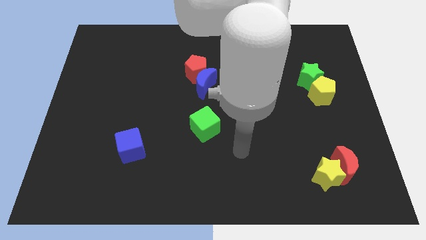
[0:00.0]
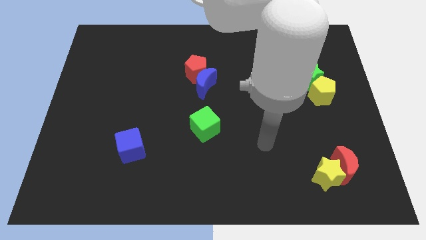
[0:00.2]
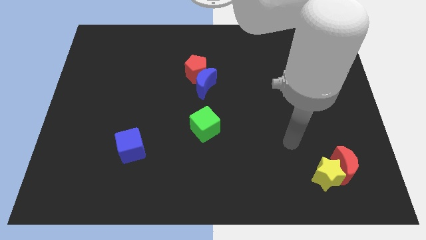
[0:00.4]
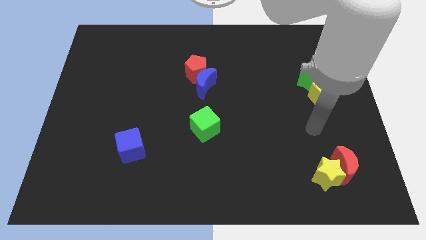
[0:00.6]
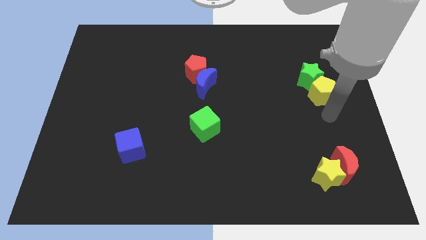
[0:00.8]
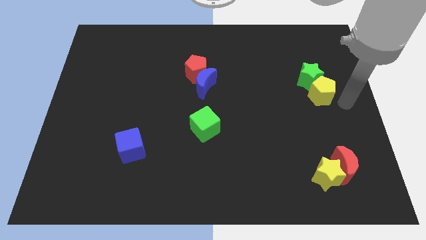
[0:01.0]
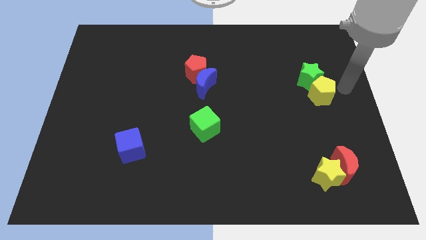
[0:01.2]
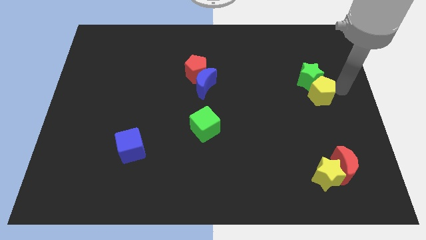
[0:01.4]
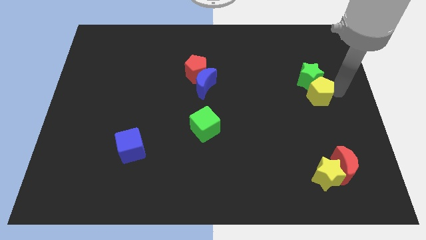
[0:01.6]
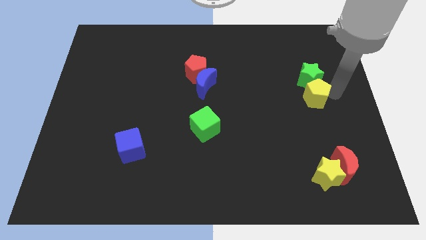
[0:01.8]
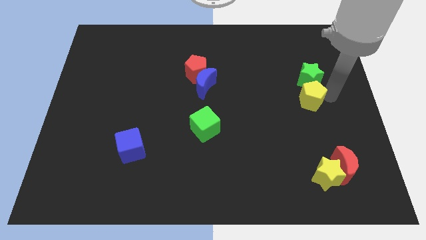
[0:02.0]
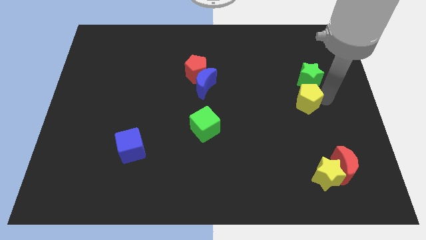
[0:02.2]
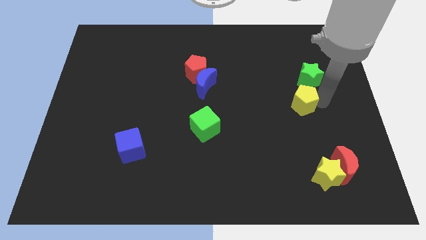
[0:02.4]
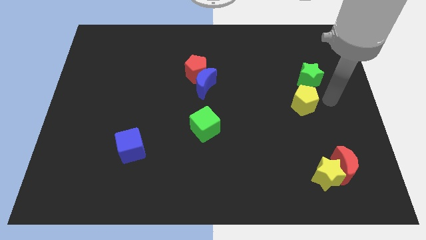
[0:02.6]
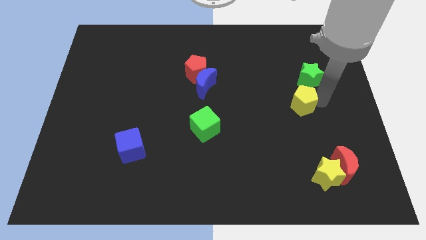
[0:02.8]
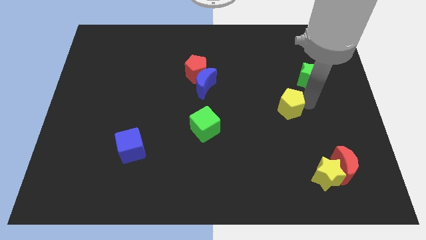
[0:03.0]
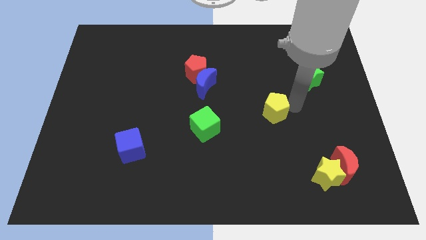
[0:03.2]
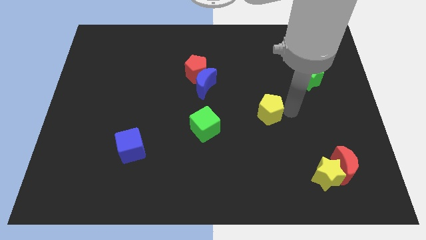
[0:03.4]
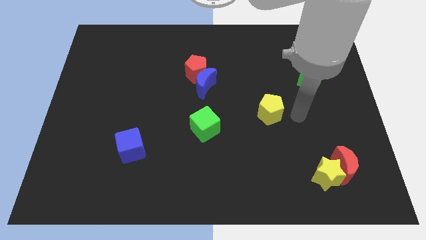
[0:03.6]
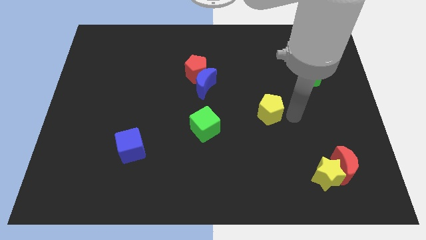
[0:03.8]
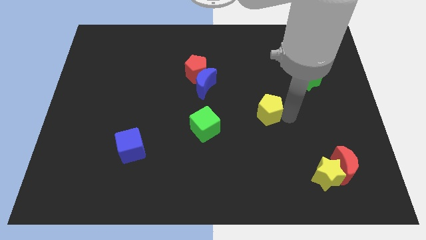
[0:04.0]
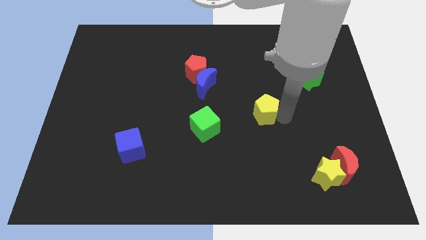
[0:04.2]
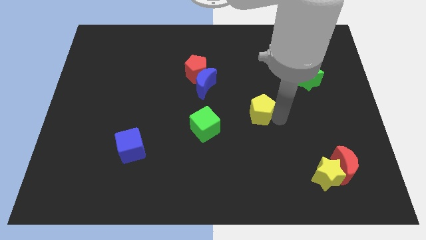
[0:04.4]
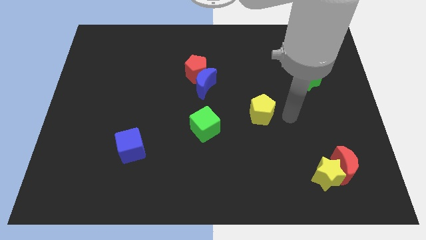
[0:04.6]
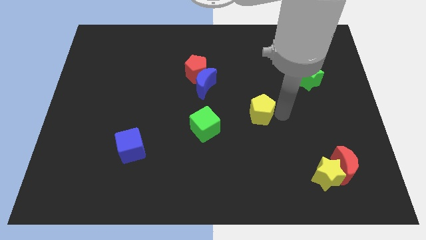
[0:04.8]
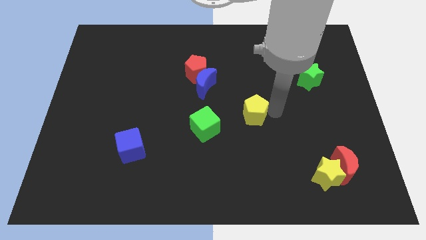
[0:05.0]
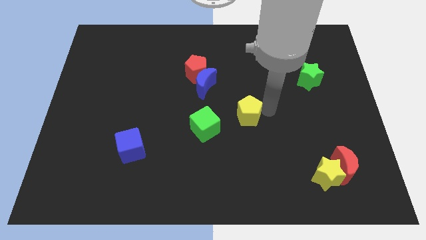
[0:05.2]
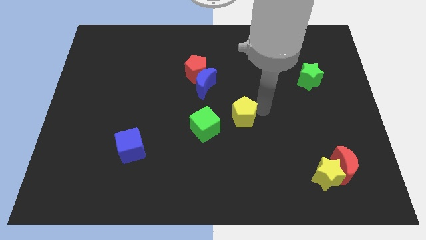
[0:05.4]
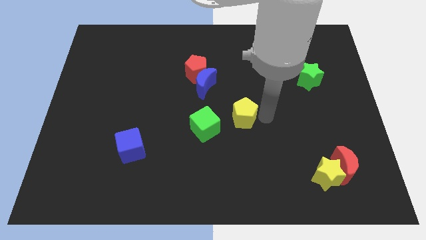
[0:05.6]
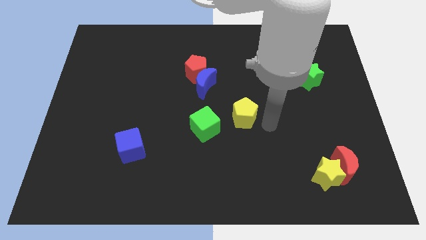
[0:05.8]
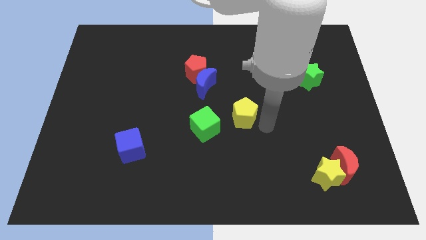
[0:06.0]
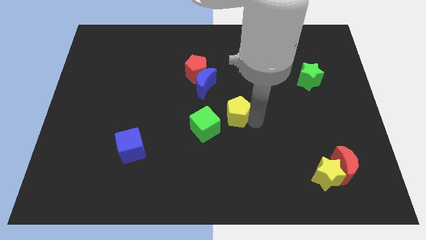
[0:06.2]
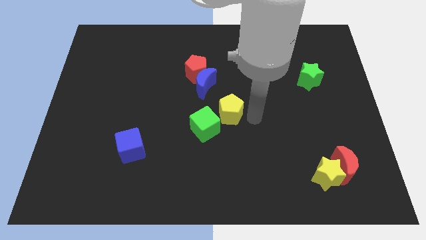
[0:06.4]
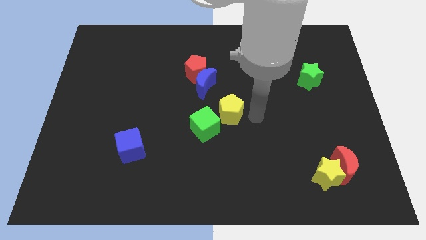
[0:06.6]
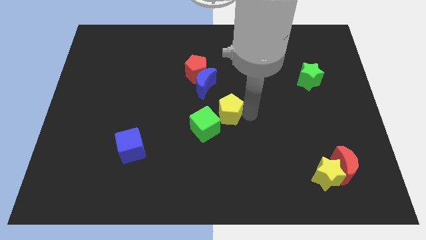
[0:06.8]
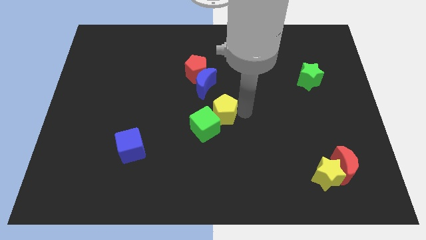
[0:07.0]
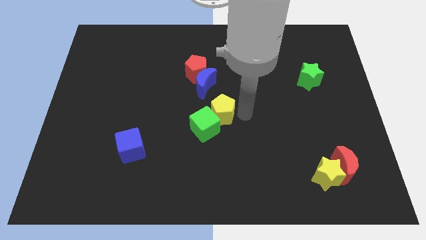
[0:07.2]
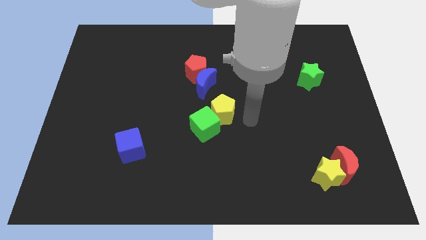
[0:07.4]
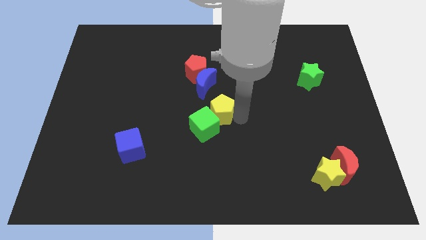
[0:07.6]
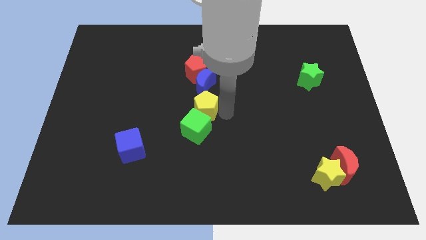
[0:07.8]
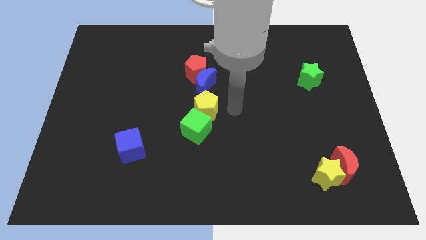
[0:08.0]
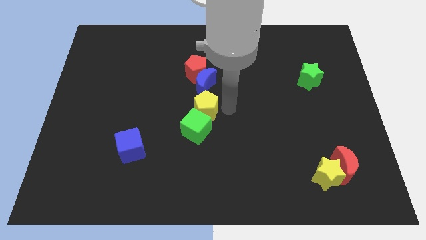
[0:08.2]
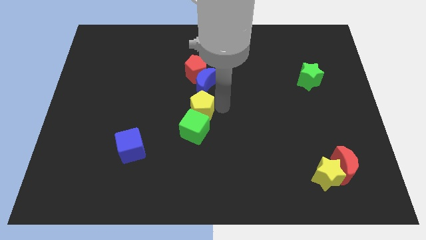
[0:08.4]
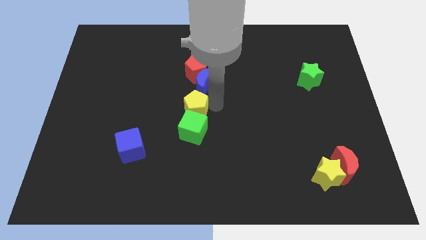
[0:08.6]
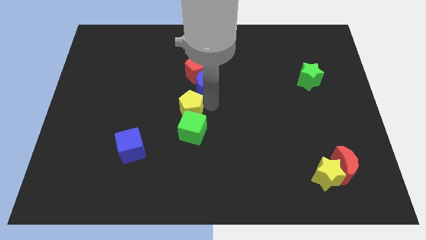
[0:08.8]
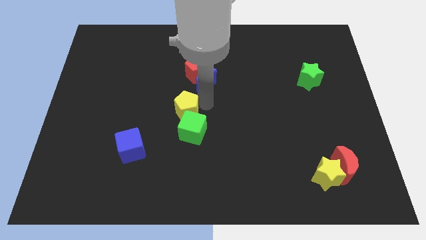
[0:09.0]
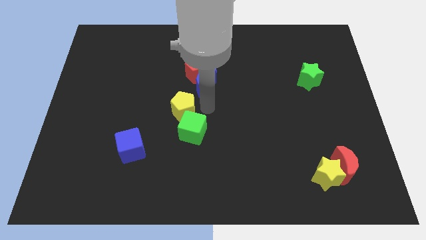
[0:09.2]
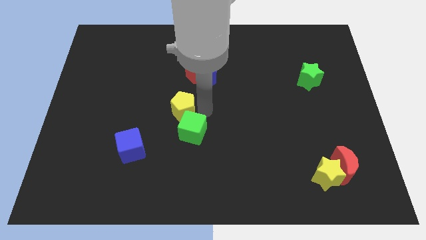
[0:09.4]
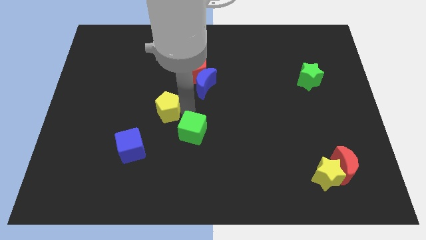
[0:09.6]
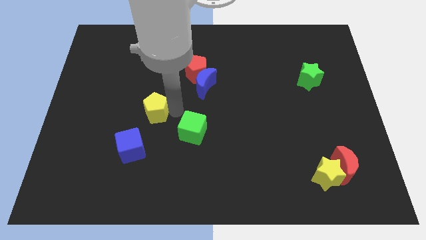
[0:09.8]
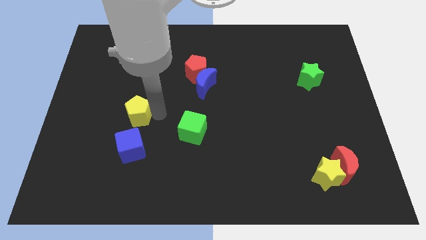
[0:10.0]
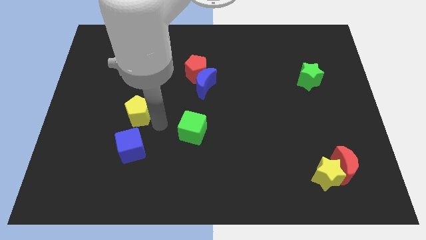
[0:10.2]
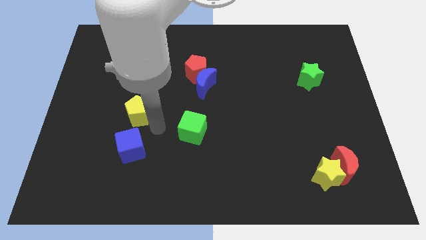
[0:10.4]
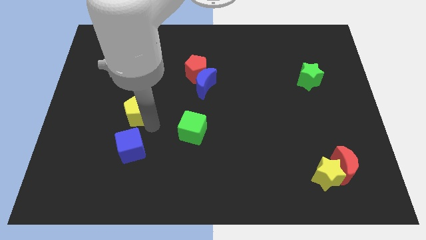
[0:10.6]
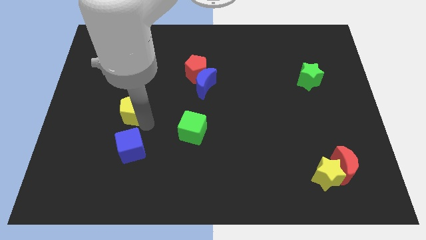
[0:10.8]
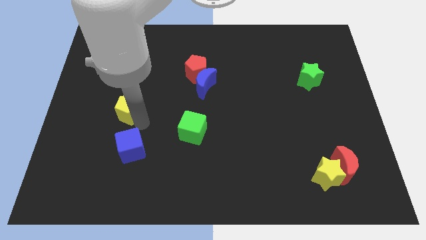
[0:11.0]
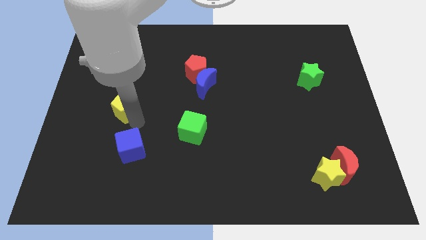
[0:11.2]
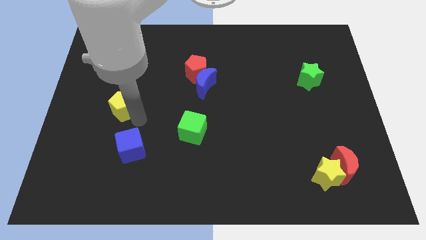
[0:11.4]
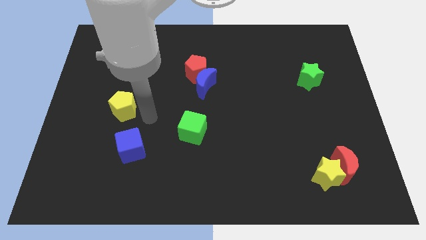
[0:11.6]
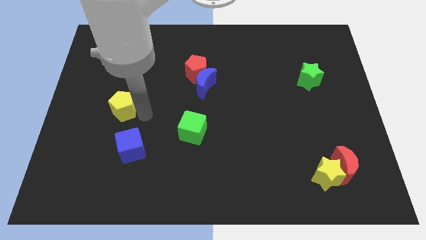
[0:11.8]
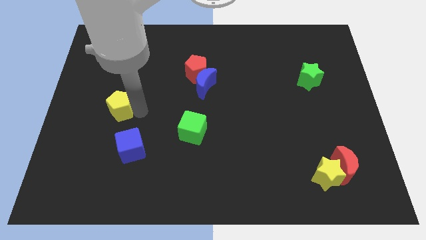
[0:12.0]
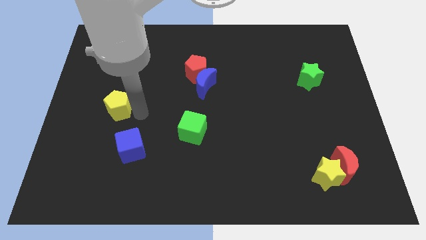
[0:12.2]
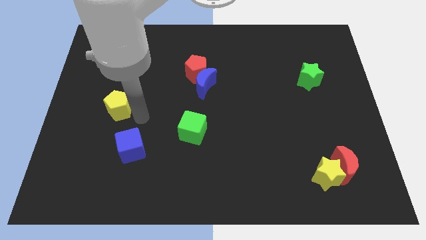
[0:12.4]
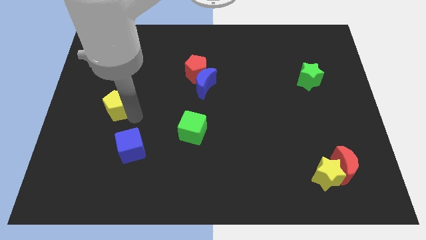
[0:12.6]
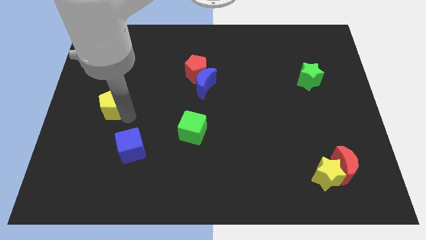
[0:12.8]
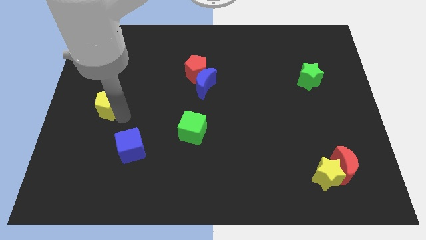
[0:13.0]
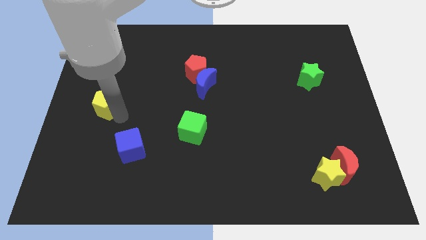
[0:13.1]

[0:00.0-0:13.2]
push the yellow pentagon to the left side
